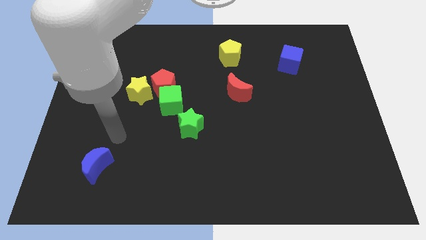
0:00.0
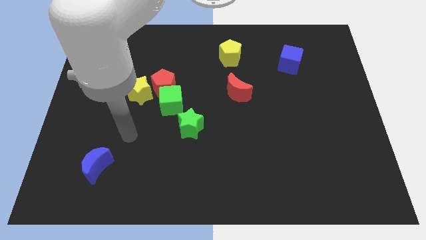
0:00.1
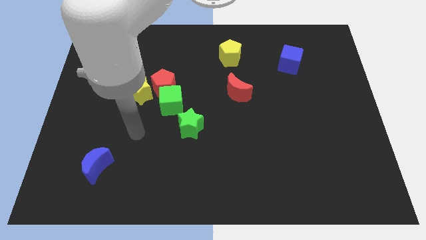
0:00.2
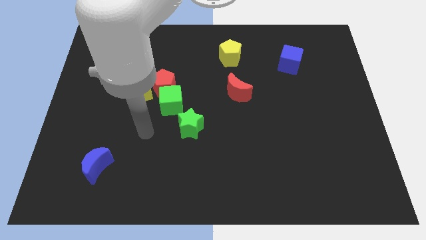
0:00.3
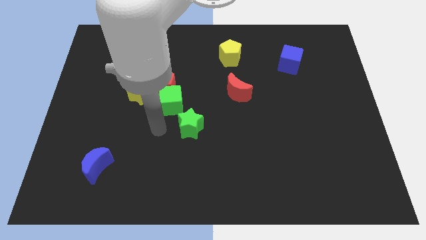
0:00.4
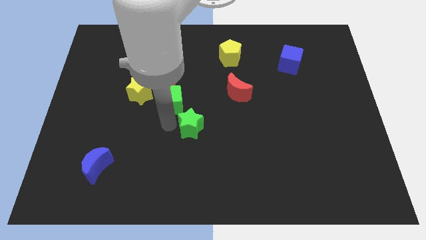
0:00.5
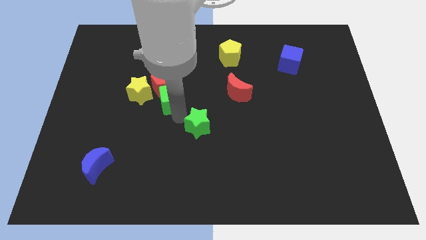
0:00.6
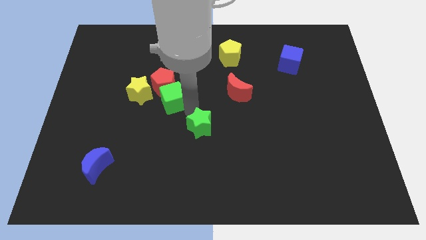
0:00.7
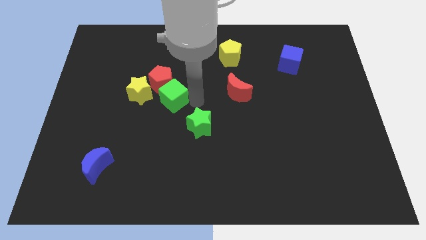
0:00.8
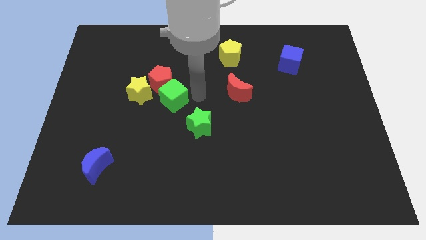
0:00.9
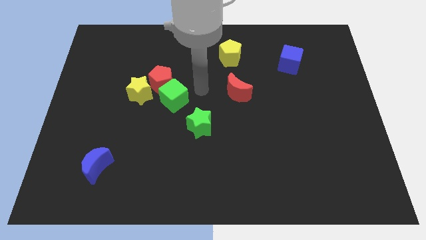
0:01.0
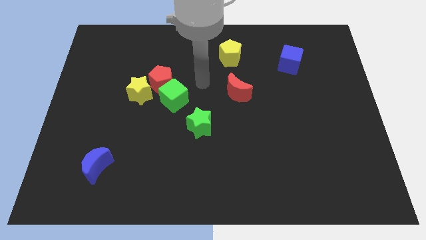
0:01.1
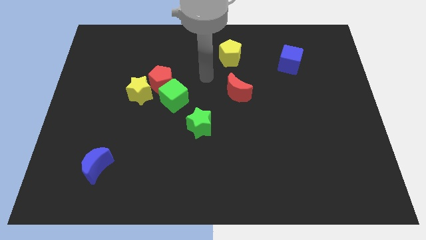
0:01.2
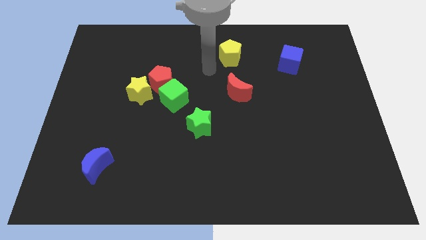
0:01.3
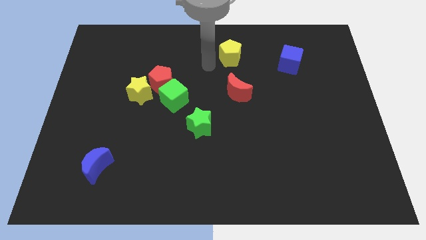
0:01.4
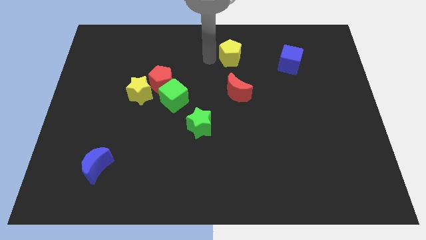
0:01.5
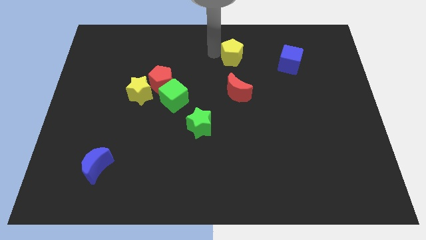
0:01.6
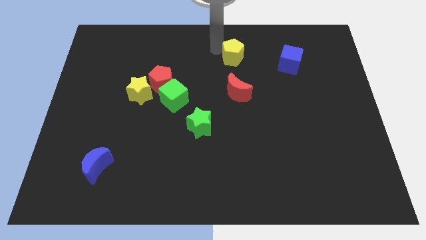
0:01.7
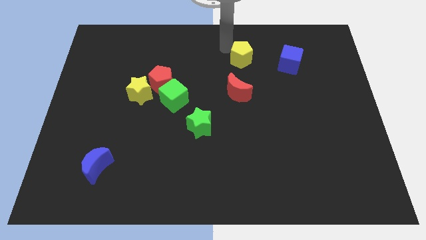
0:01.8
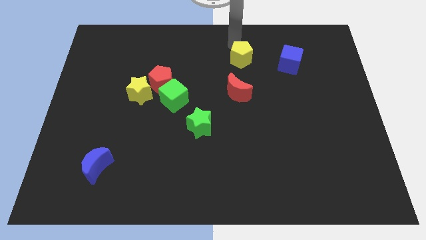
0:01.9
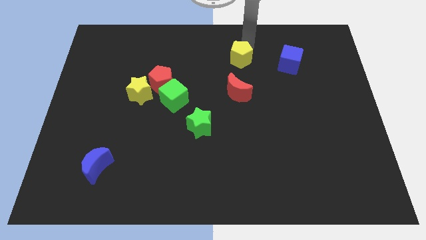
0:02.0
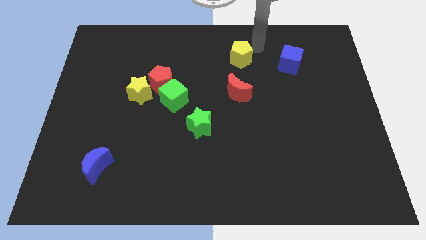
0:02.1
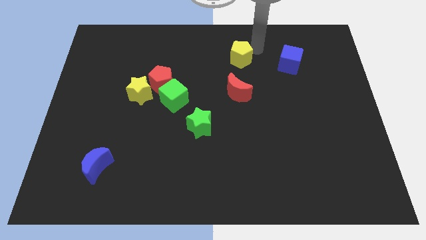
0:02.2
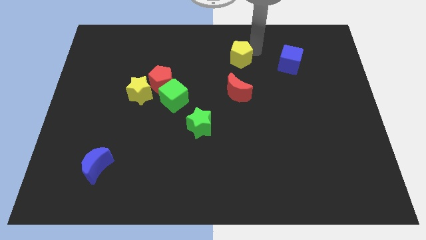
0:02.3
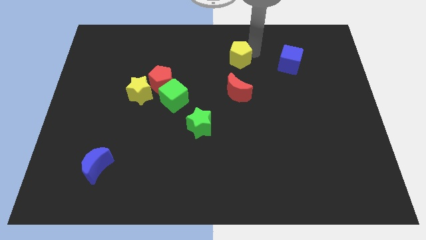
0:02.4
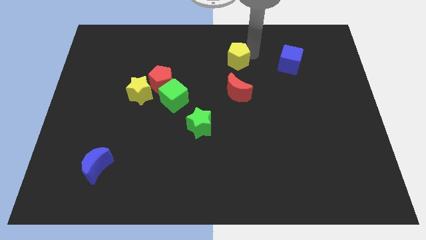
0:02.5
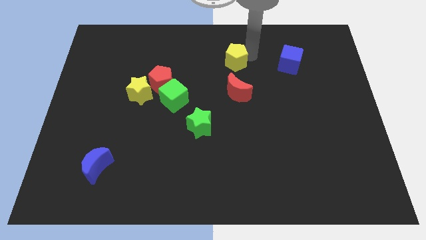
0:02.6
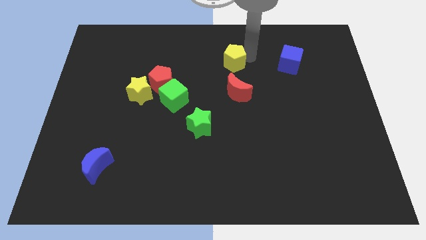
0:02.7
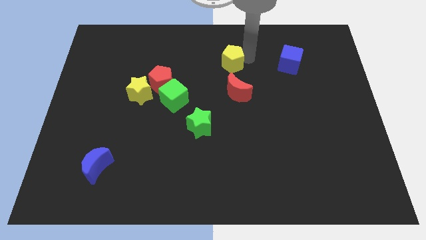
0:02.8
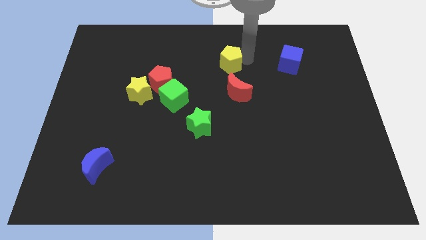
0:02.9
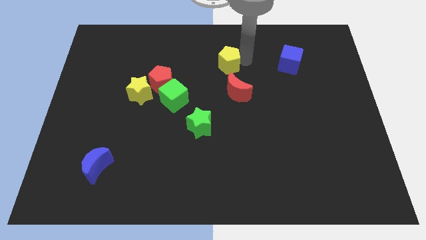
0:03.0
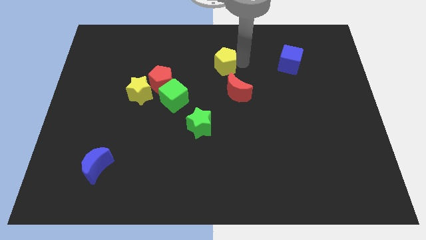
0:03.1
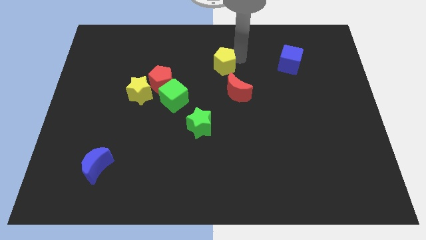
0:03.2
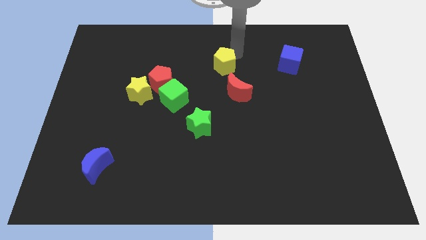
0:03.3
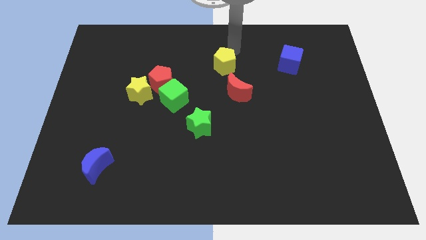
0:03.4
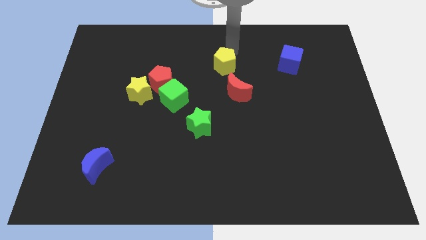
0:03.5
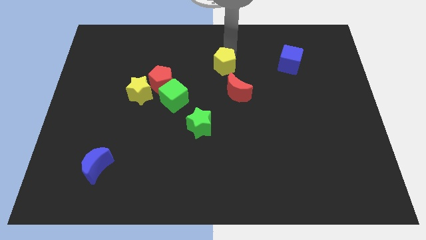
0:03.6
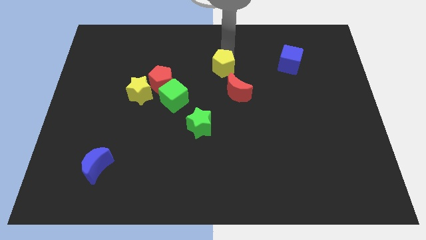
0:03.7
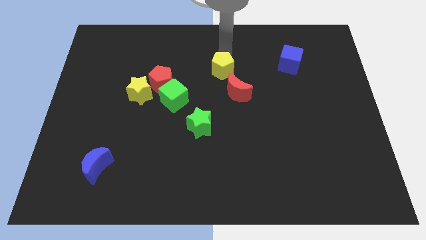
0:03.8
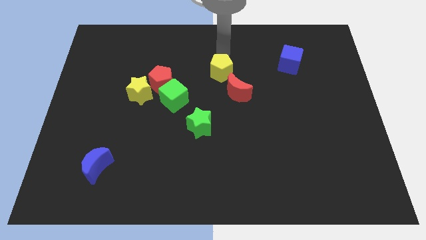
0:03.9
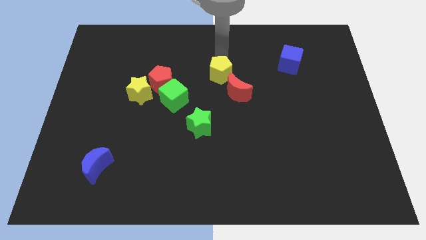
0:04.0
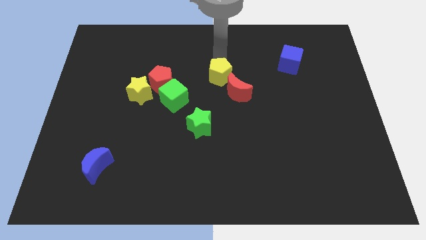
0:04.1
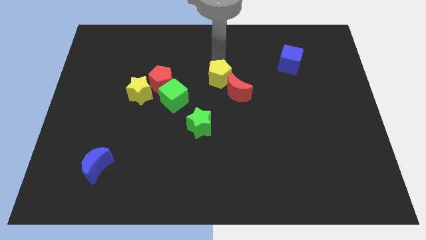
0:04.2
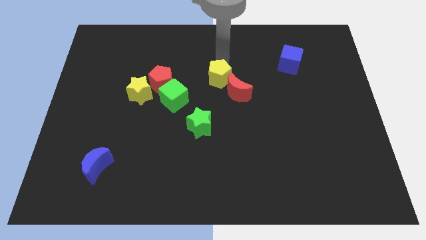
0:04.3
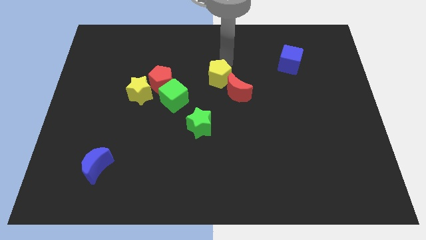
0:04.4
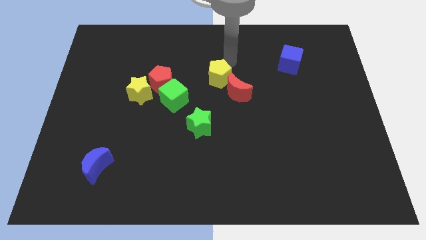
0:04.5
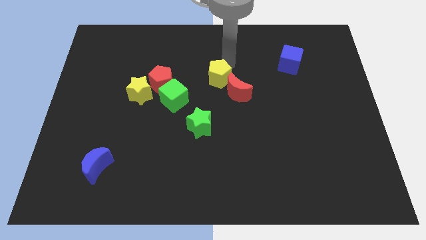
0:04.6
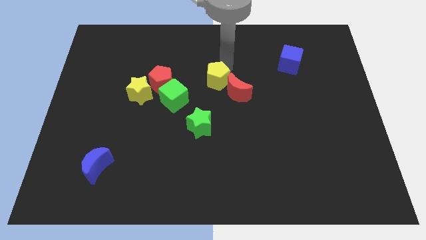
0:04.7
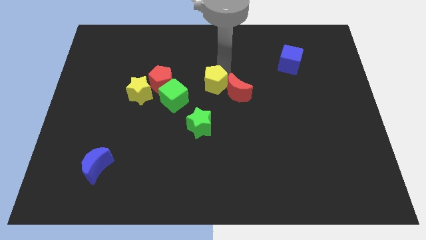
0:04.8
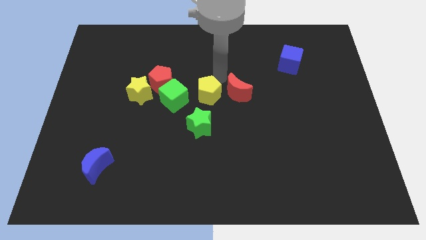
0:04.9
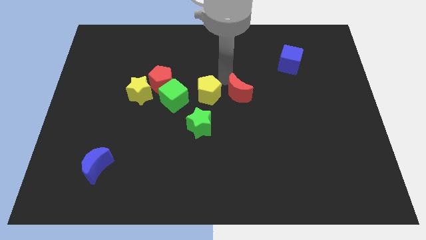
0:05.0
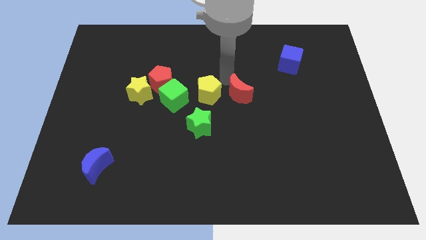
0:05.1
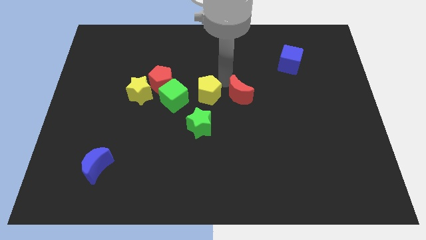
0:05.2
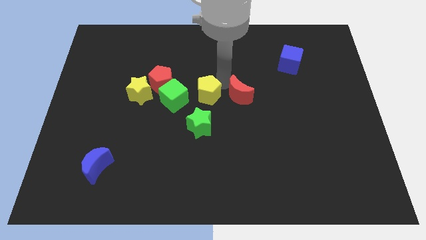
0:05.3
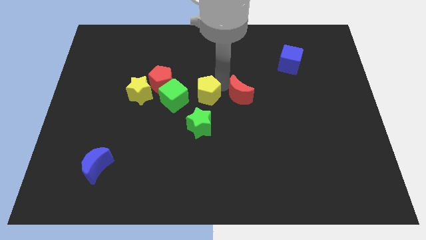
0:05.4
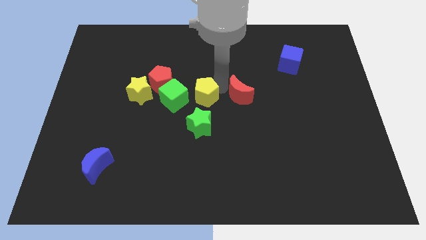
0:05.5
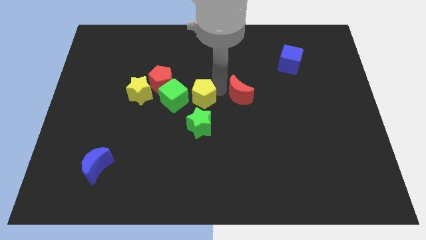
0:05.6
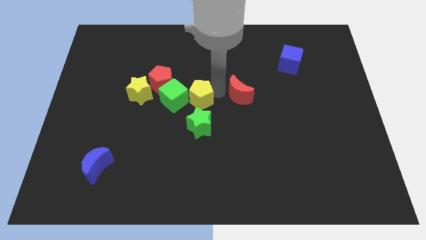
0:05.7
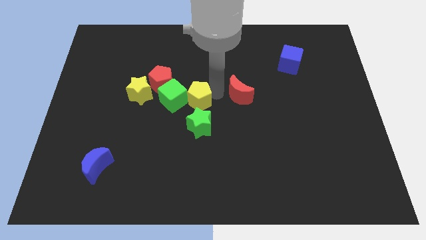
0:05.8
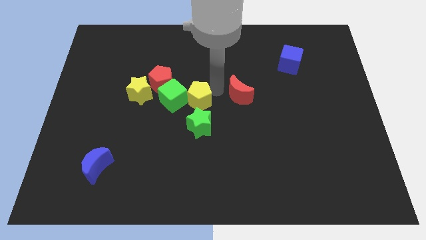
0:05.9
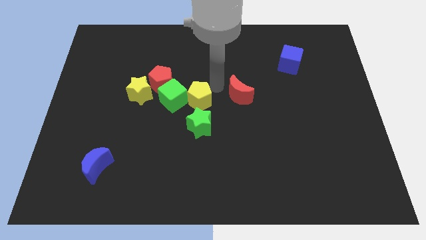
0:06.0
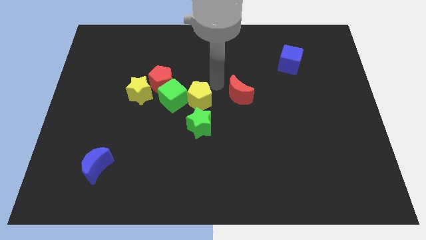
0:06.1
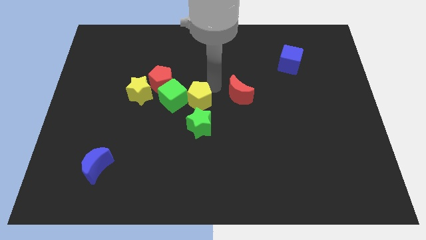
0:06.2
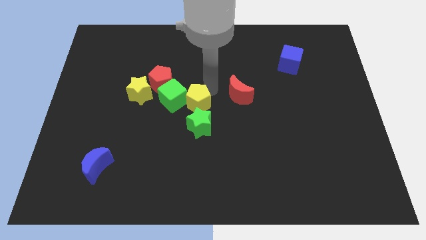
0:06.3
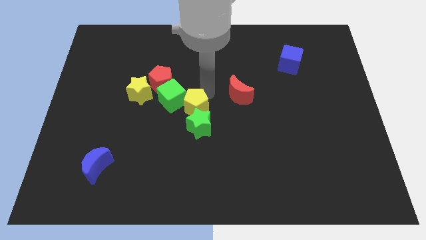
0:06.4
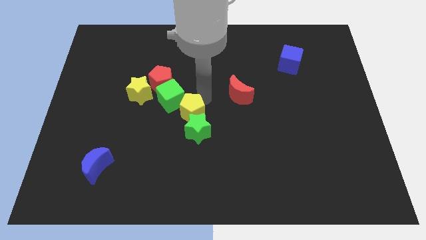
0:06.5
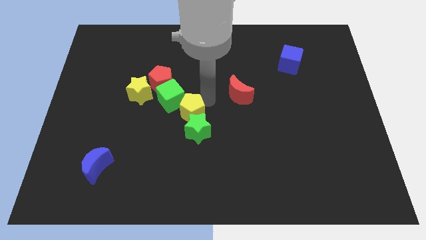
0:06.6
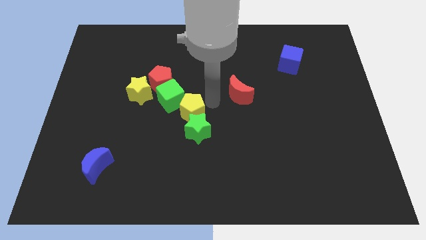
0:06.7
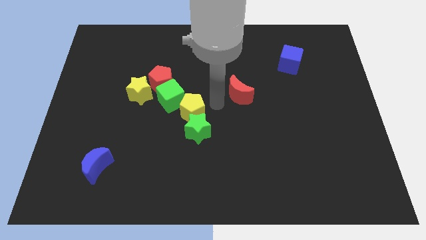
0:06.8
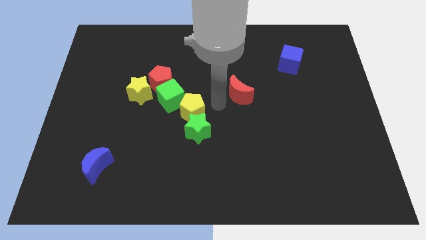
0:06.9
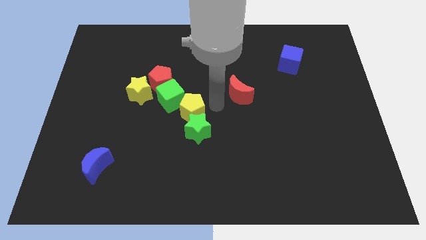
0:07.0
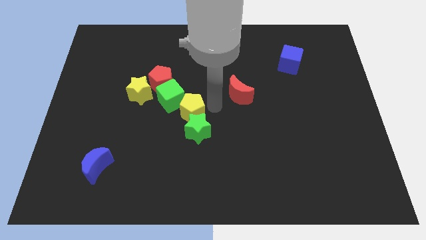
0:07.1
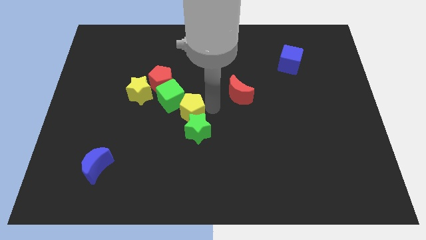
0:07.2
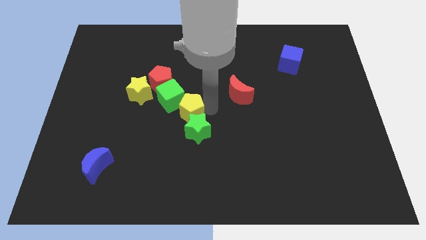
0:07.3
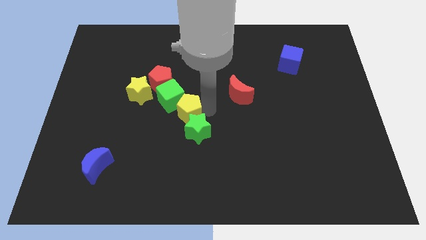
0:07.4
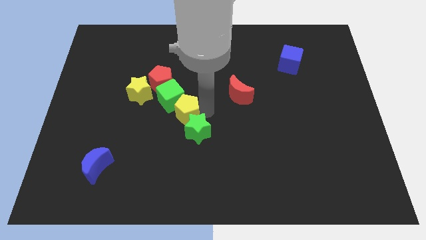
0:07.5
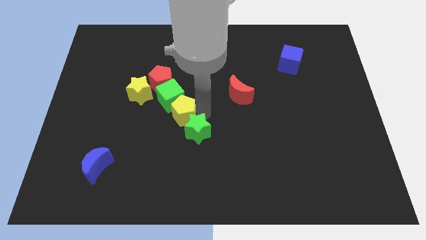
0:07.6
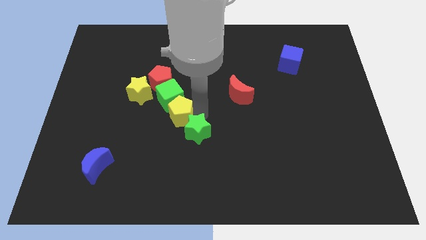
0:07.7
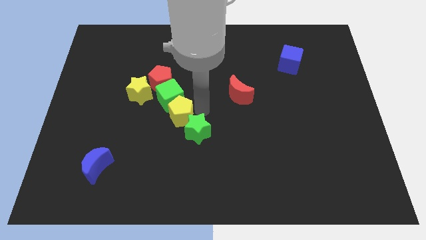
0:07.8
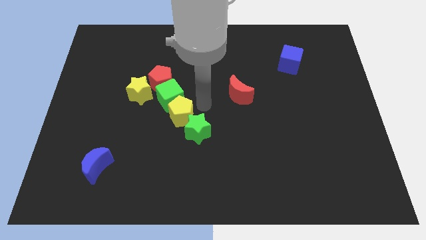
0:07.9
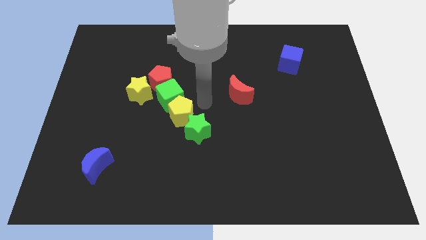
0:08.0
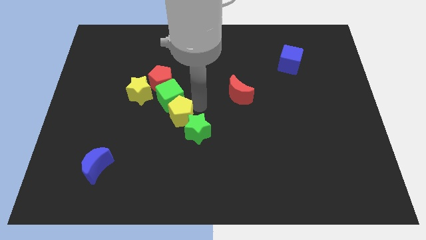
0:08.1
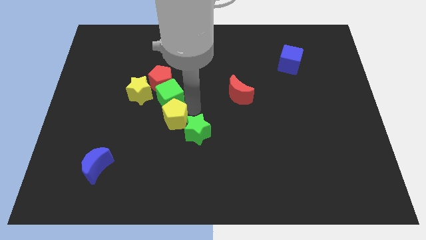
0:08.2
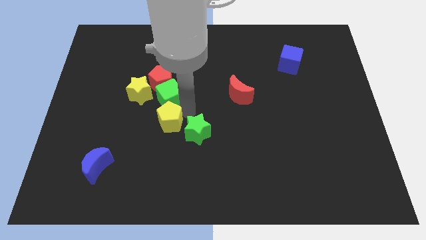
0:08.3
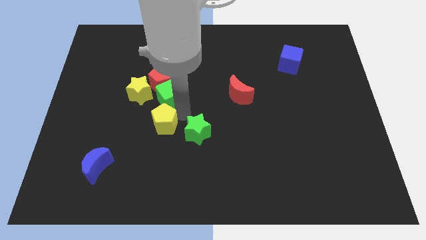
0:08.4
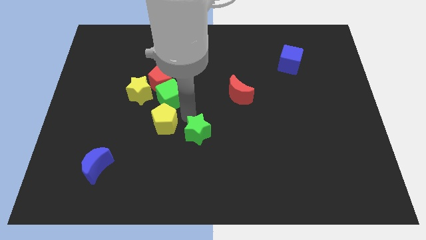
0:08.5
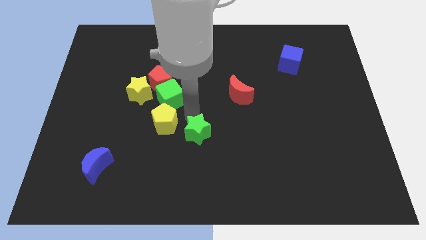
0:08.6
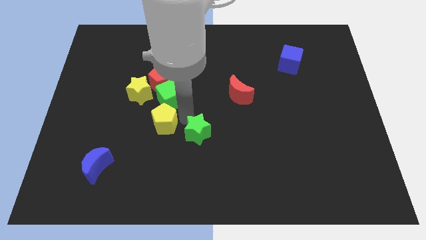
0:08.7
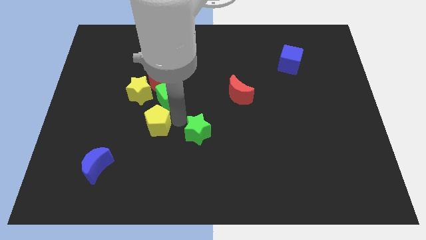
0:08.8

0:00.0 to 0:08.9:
slide the yellow pentagon to the bottom side of the yellow star
